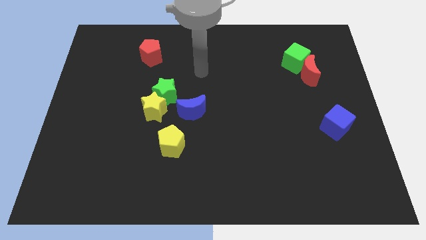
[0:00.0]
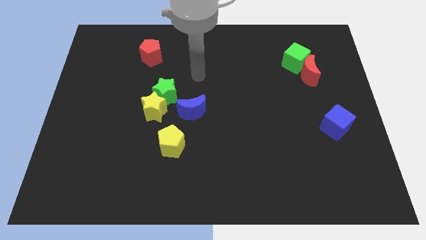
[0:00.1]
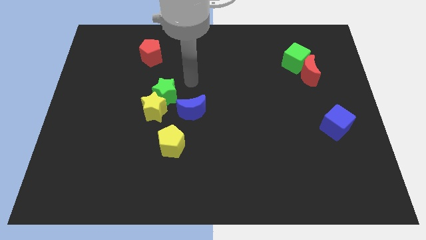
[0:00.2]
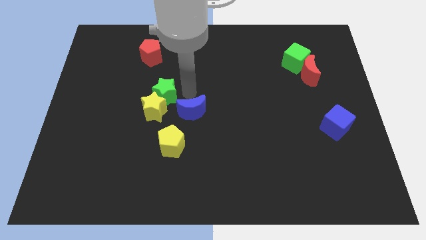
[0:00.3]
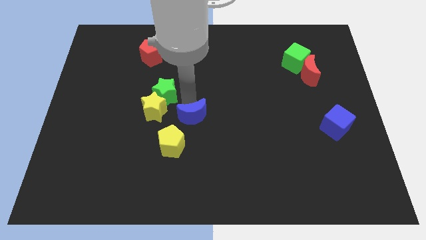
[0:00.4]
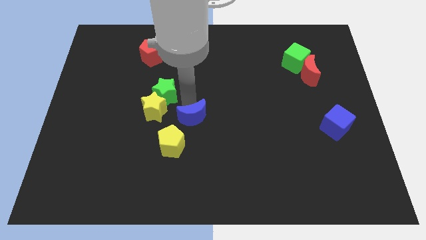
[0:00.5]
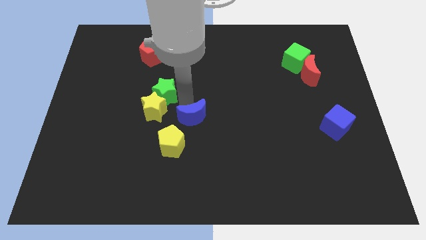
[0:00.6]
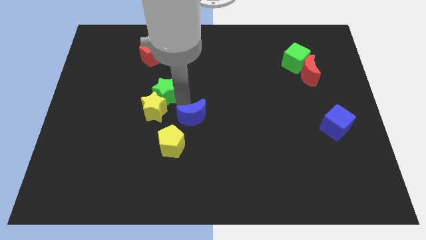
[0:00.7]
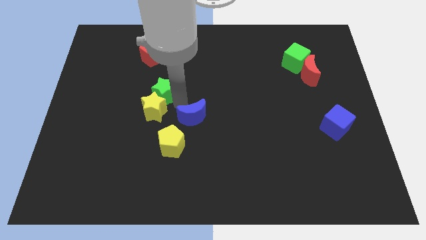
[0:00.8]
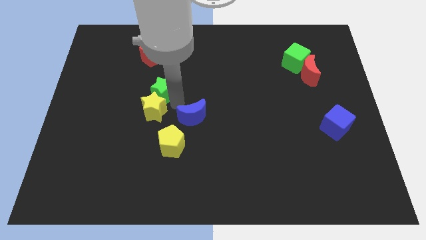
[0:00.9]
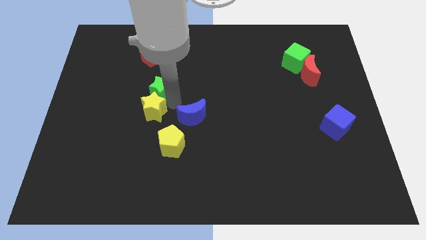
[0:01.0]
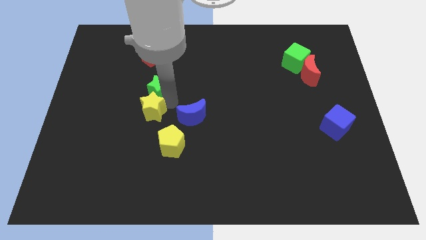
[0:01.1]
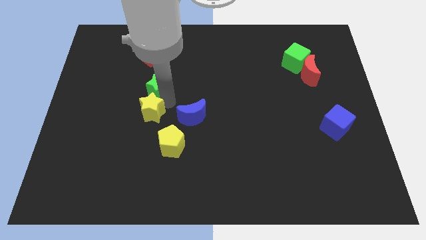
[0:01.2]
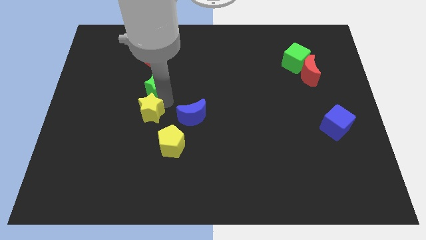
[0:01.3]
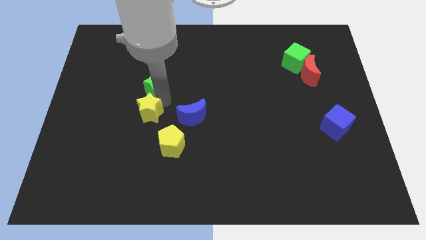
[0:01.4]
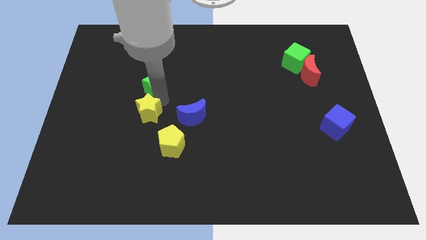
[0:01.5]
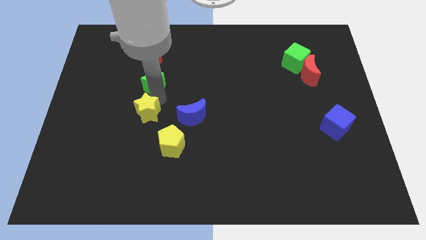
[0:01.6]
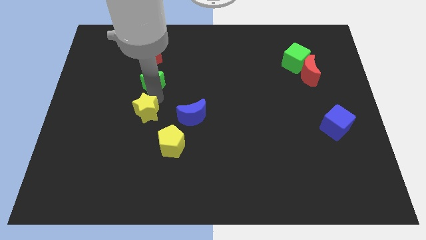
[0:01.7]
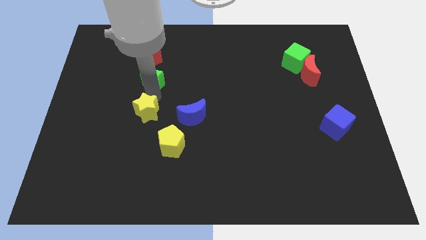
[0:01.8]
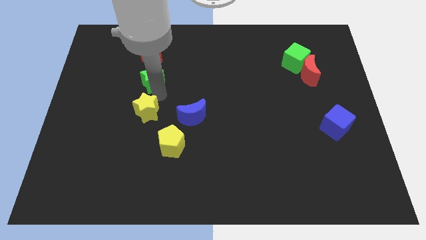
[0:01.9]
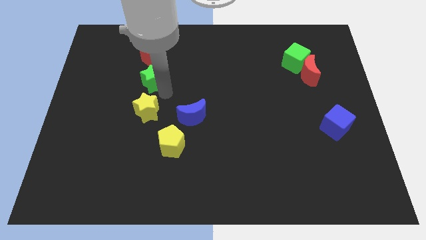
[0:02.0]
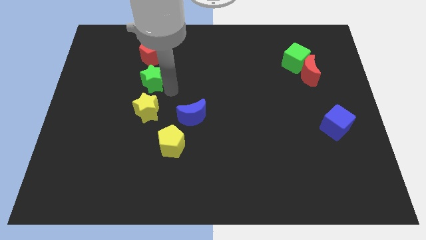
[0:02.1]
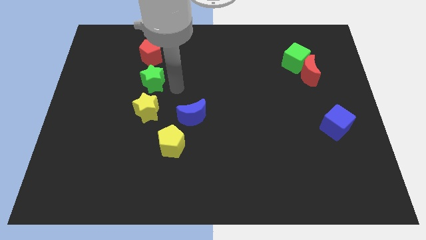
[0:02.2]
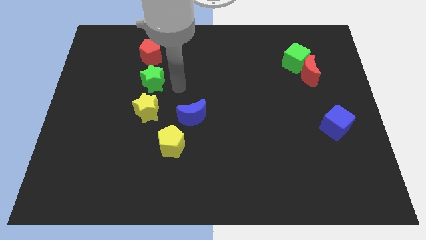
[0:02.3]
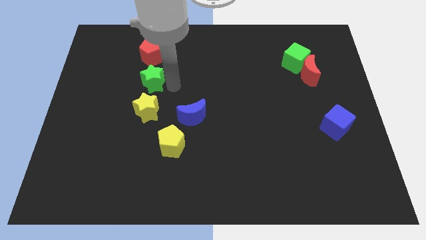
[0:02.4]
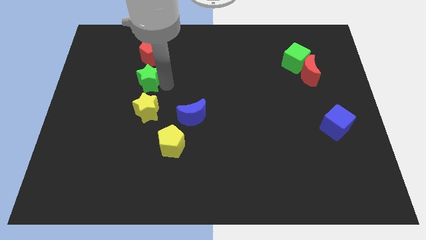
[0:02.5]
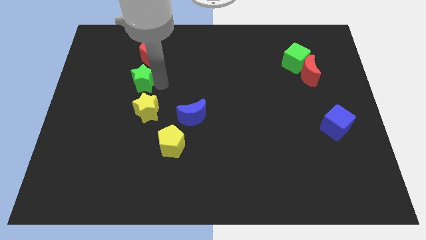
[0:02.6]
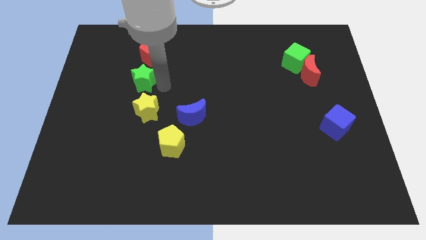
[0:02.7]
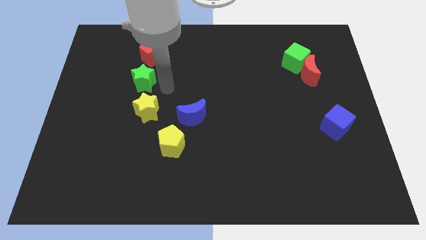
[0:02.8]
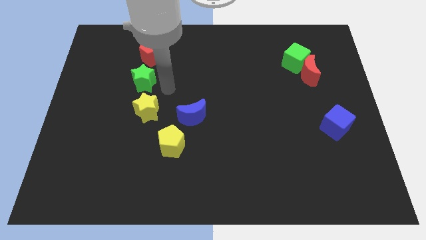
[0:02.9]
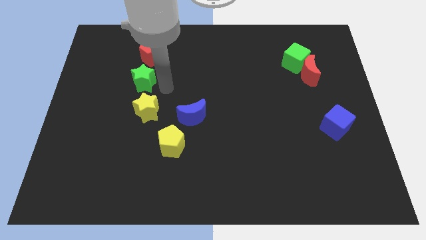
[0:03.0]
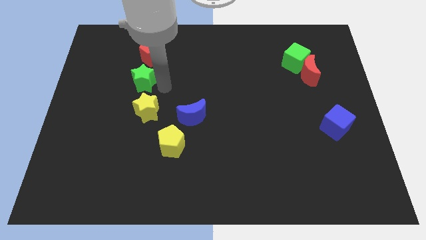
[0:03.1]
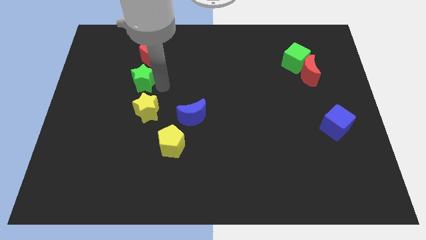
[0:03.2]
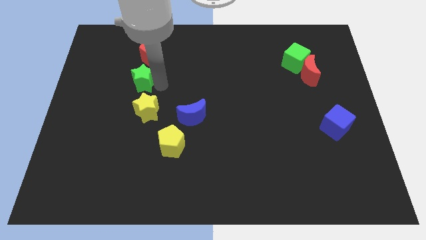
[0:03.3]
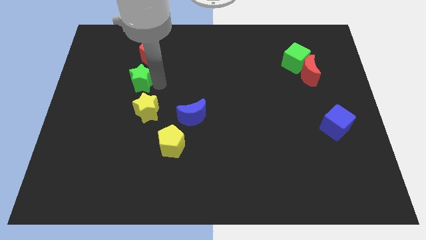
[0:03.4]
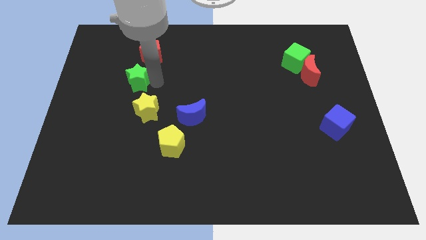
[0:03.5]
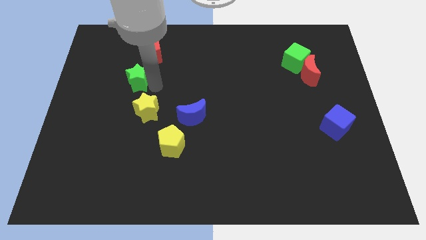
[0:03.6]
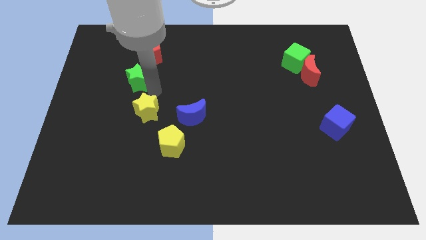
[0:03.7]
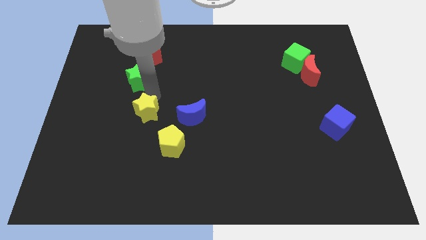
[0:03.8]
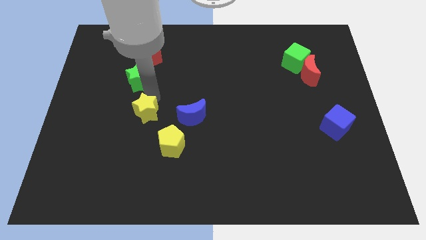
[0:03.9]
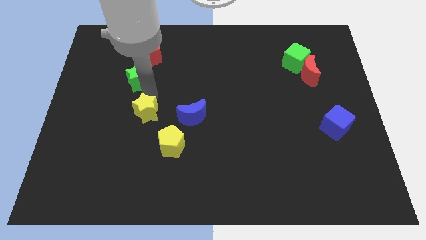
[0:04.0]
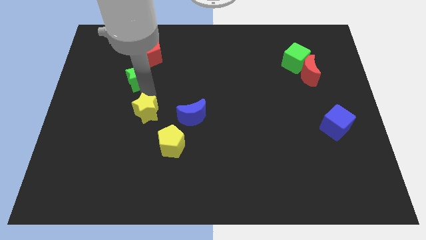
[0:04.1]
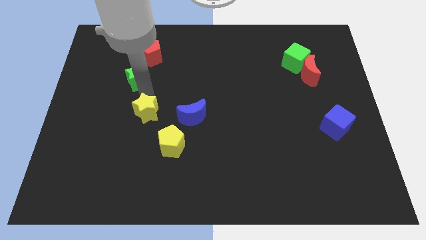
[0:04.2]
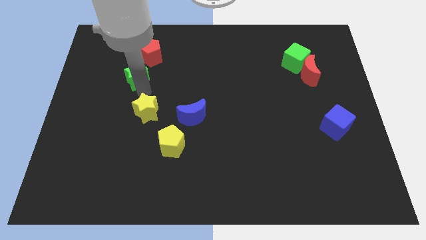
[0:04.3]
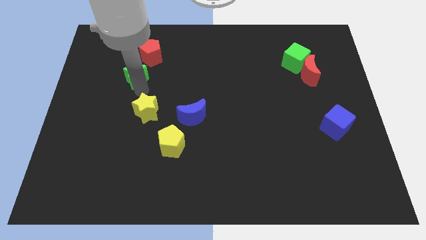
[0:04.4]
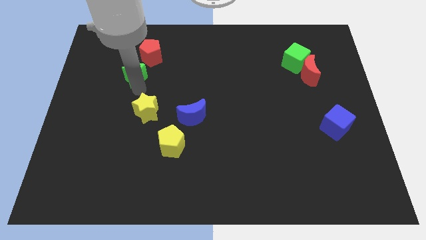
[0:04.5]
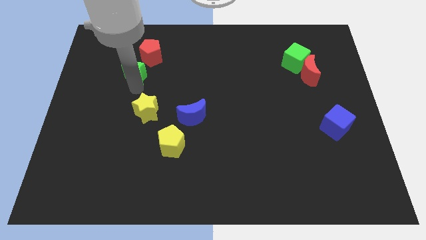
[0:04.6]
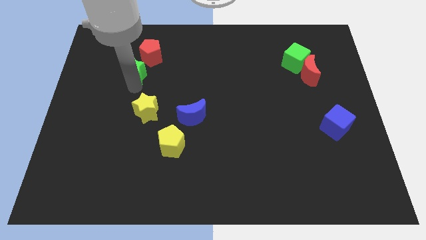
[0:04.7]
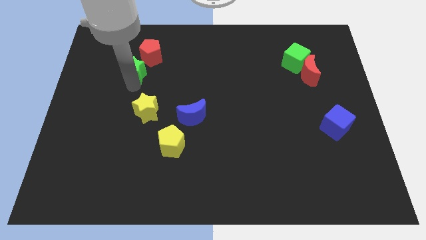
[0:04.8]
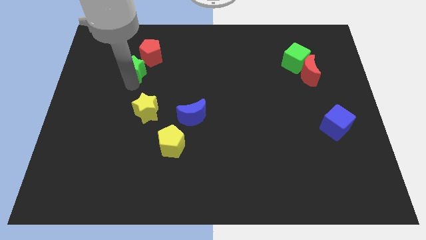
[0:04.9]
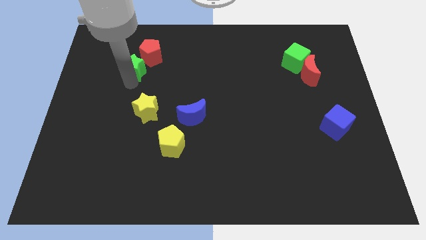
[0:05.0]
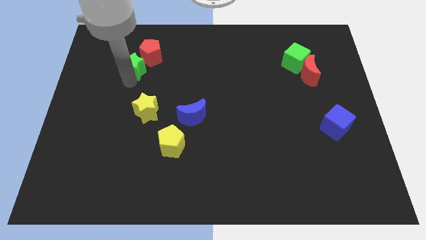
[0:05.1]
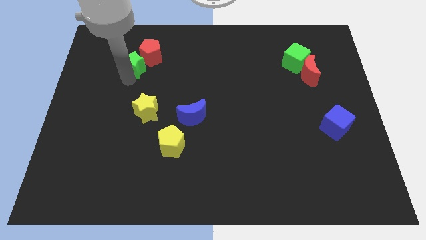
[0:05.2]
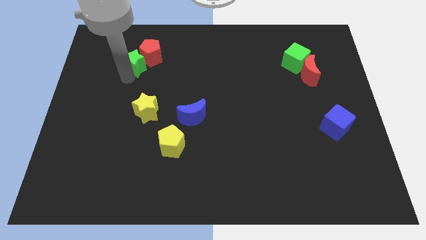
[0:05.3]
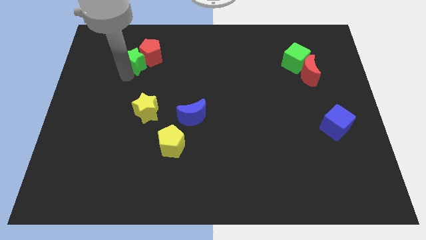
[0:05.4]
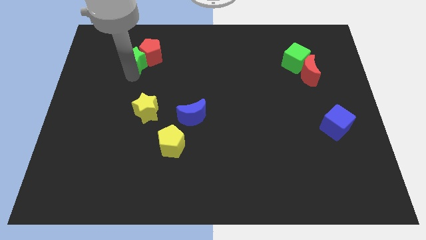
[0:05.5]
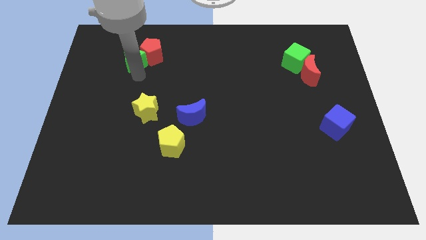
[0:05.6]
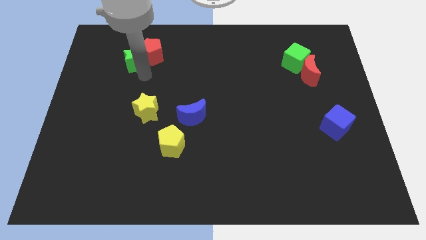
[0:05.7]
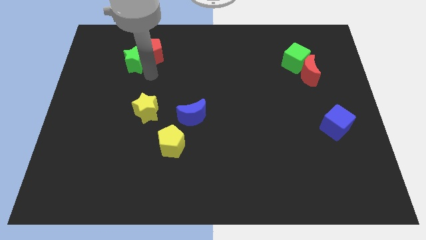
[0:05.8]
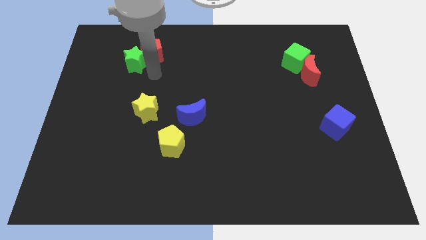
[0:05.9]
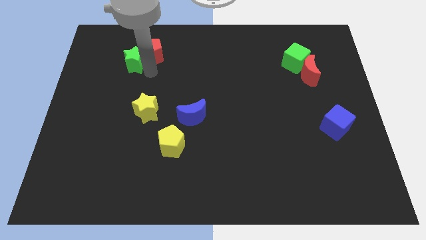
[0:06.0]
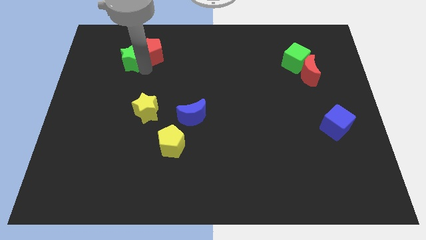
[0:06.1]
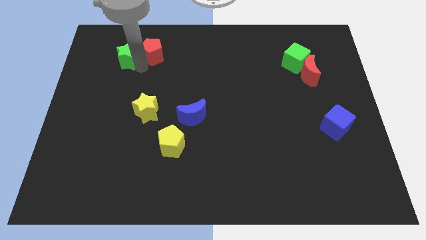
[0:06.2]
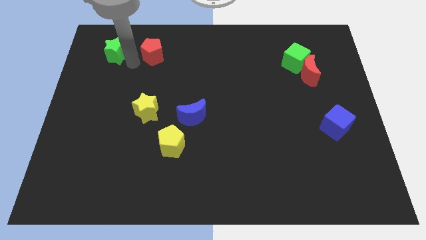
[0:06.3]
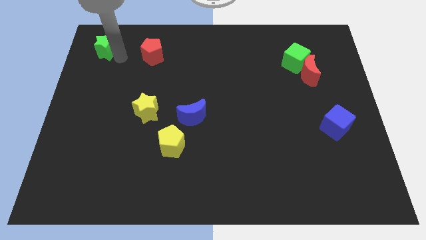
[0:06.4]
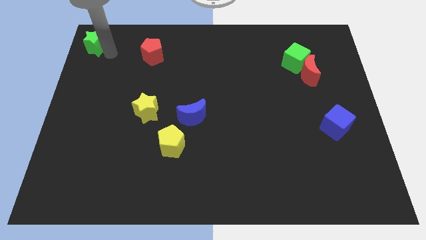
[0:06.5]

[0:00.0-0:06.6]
put the green star to the top left of the board
